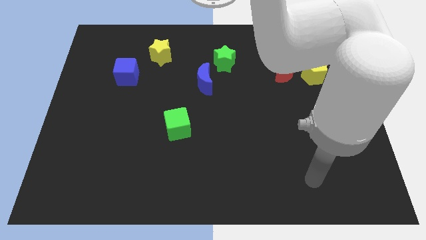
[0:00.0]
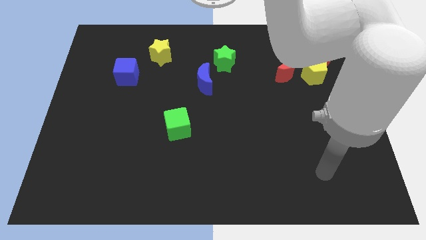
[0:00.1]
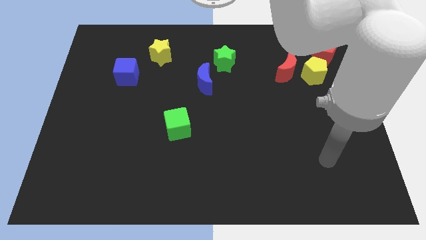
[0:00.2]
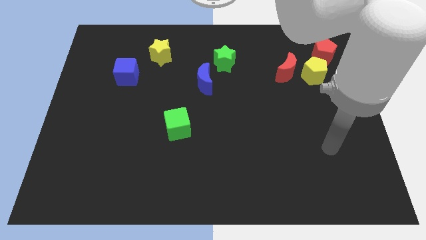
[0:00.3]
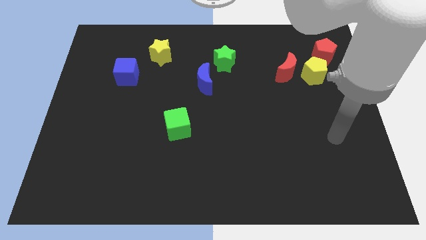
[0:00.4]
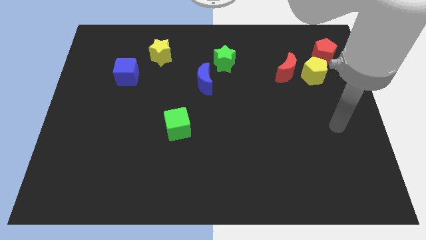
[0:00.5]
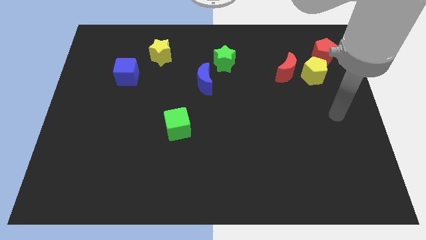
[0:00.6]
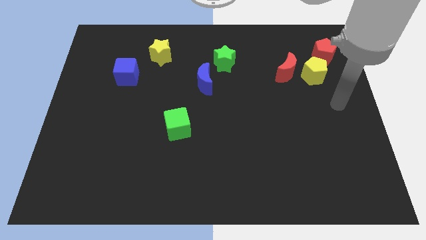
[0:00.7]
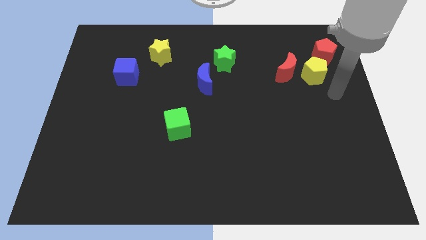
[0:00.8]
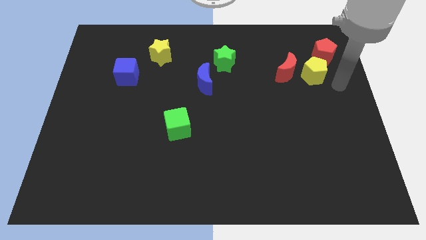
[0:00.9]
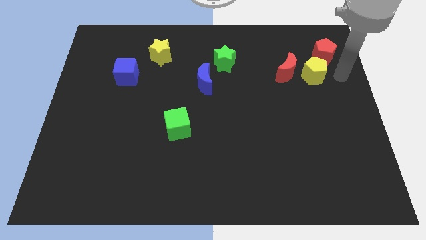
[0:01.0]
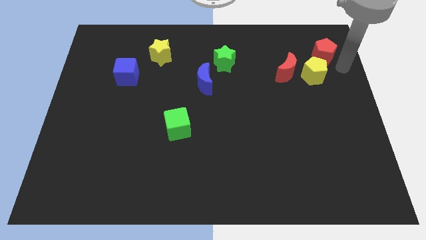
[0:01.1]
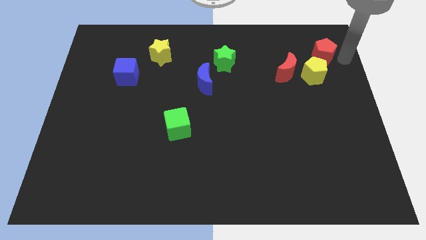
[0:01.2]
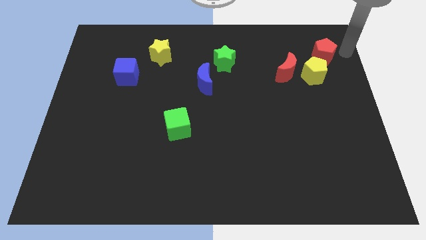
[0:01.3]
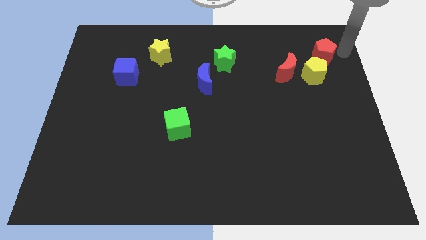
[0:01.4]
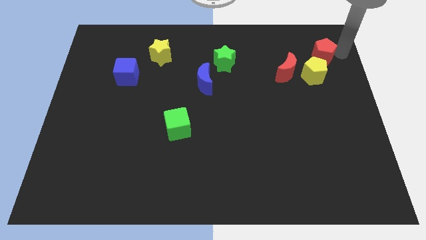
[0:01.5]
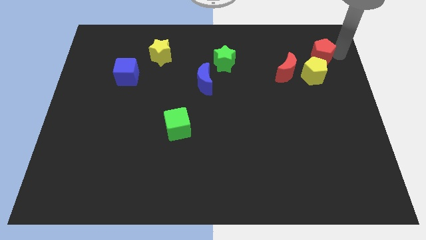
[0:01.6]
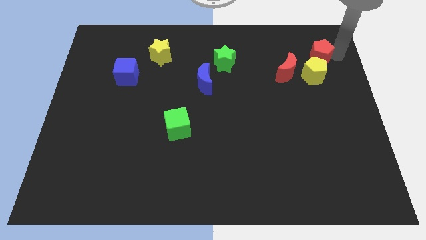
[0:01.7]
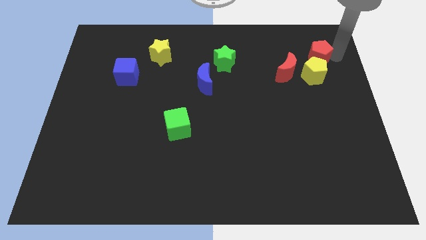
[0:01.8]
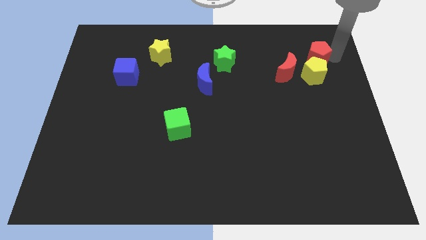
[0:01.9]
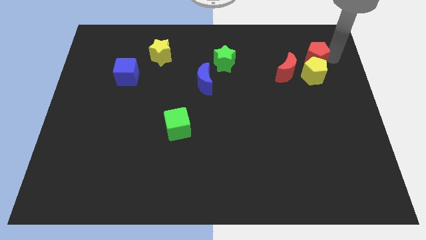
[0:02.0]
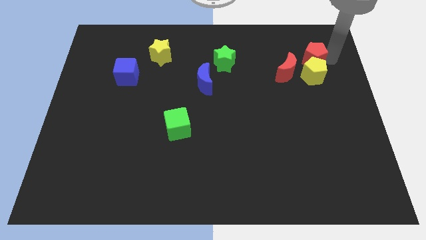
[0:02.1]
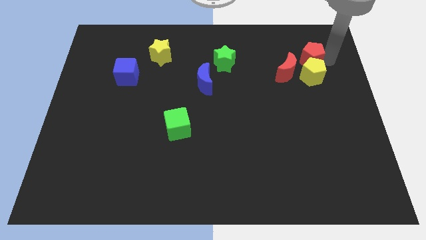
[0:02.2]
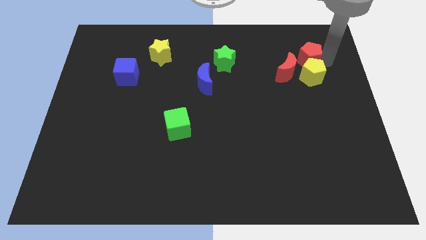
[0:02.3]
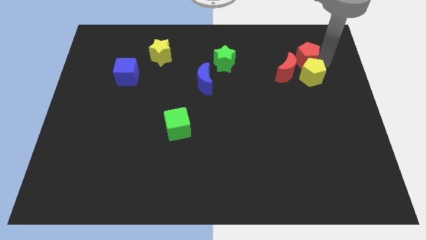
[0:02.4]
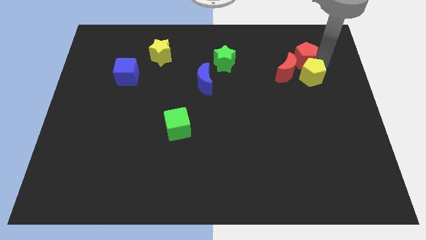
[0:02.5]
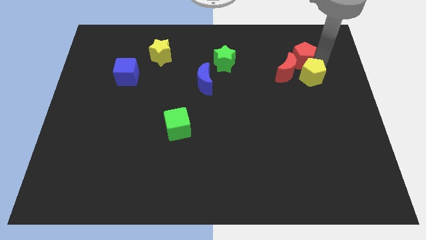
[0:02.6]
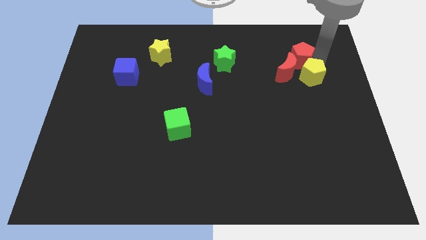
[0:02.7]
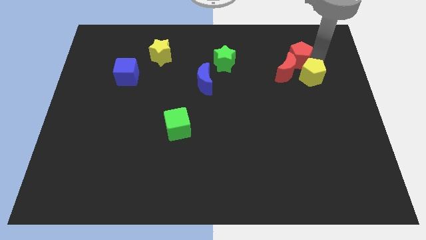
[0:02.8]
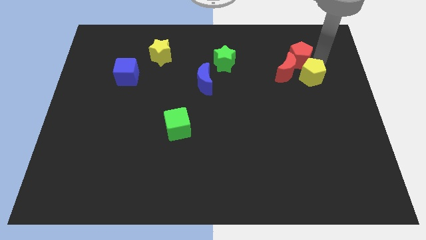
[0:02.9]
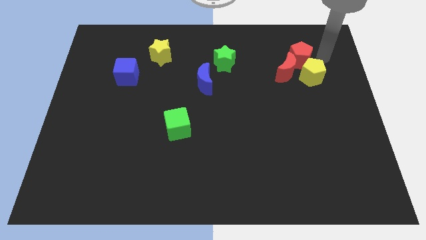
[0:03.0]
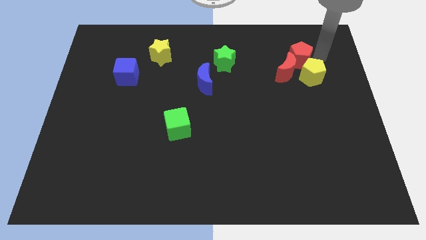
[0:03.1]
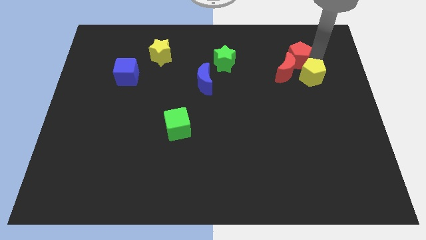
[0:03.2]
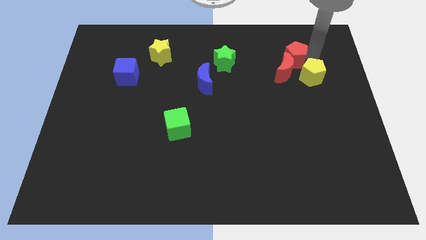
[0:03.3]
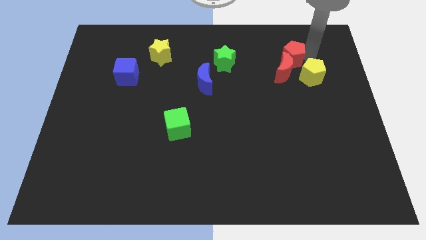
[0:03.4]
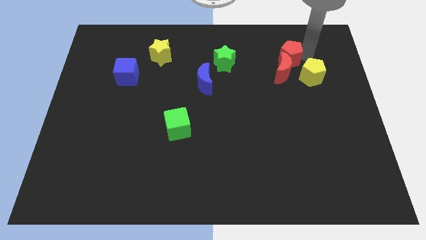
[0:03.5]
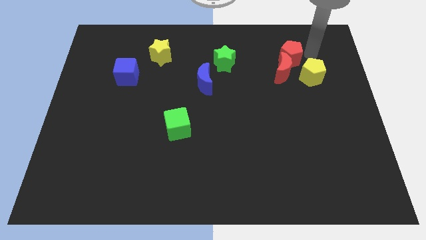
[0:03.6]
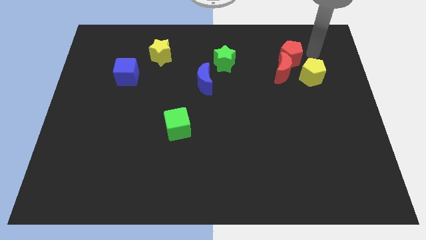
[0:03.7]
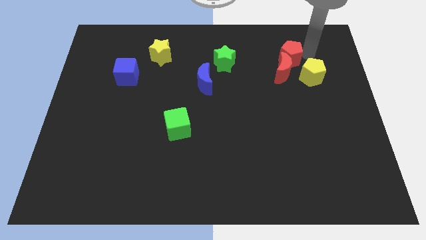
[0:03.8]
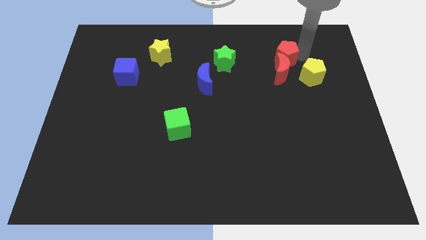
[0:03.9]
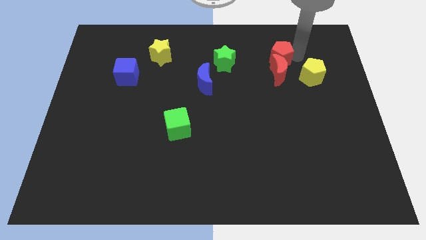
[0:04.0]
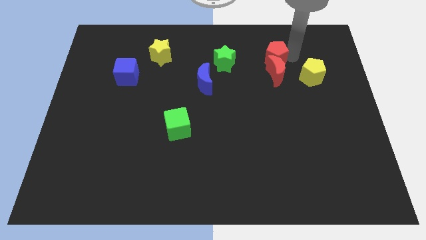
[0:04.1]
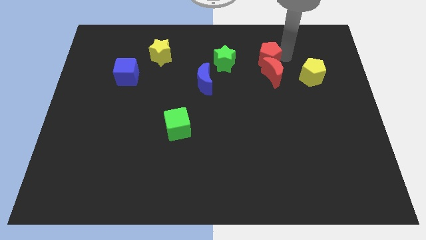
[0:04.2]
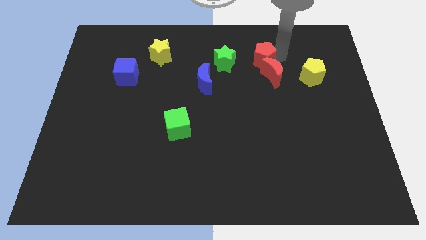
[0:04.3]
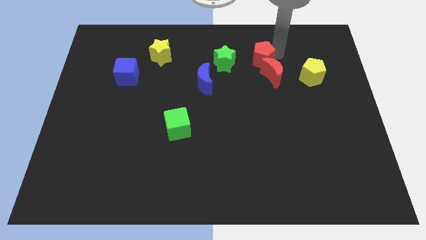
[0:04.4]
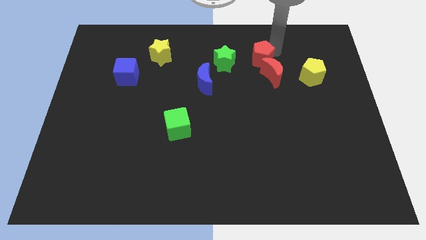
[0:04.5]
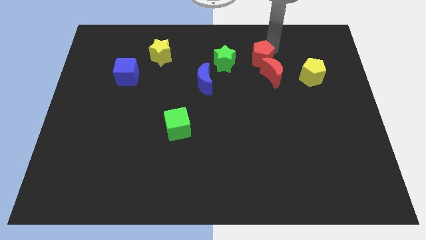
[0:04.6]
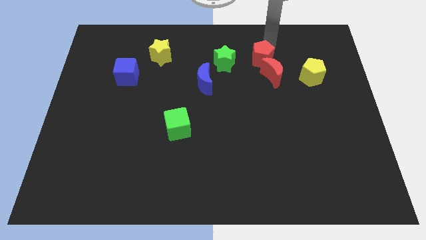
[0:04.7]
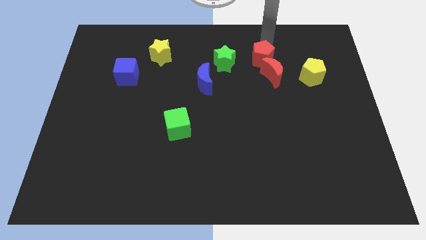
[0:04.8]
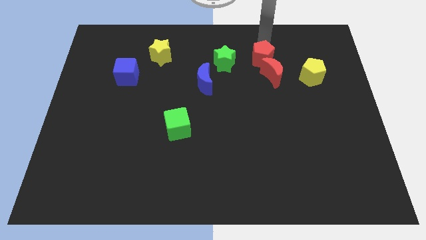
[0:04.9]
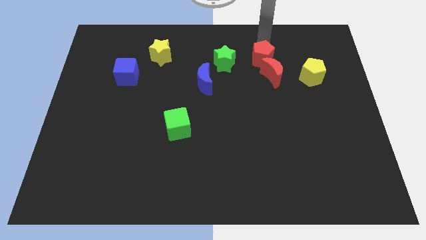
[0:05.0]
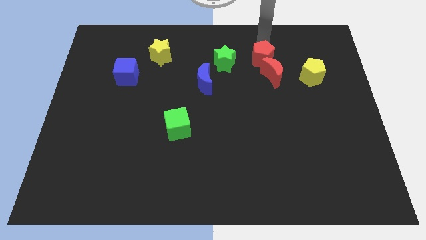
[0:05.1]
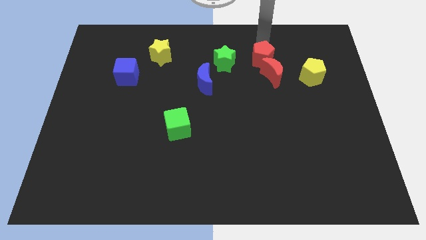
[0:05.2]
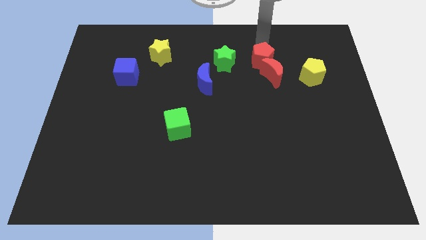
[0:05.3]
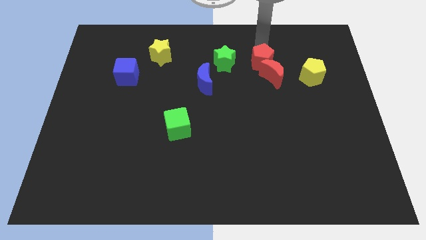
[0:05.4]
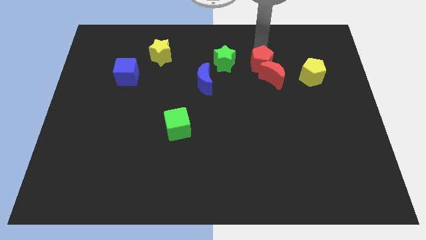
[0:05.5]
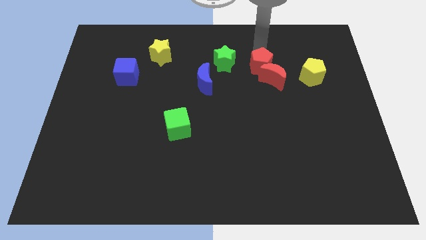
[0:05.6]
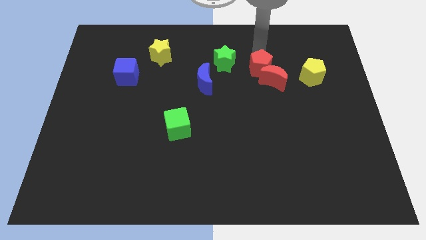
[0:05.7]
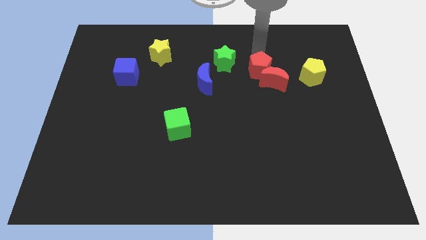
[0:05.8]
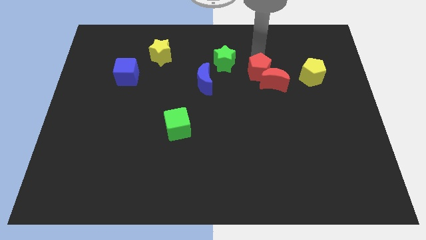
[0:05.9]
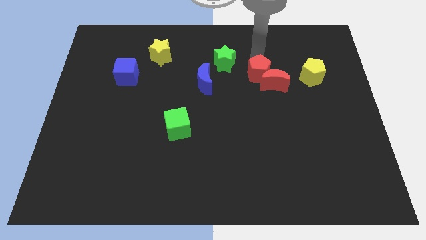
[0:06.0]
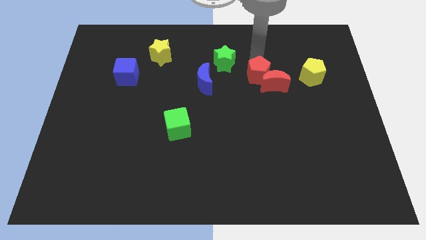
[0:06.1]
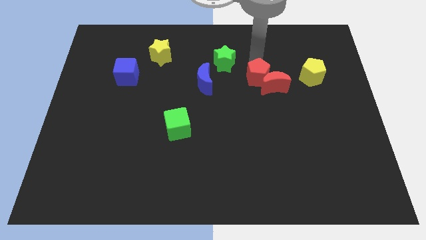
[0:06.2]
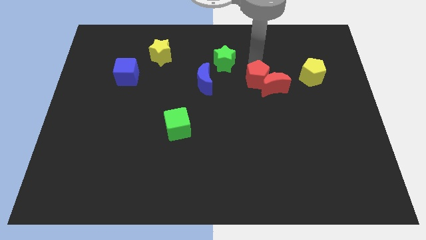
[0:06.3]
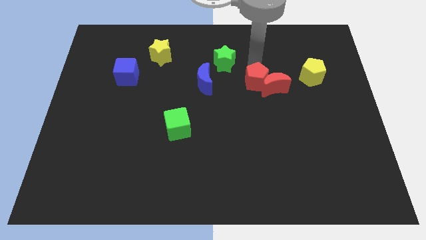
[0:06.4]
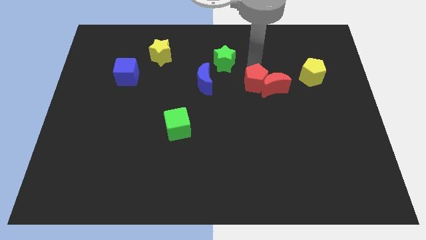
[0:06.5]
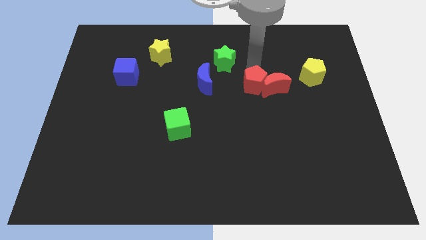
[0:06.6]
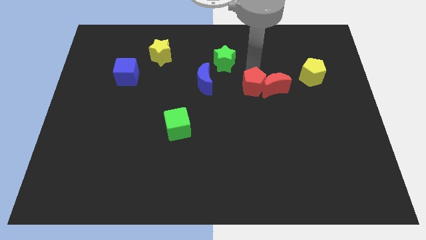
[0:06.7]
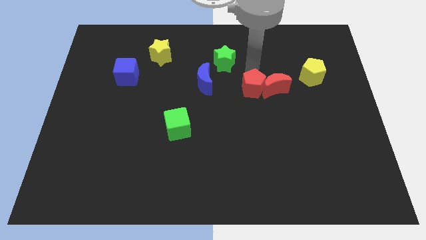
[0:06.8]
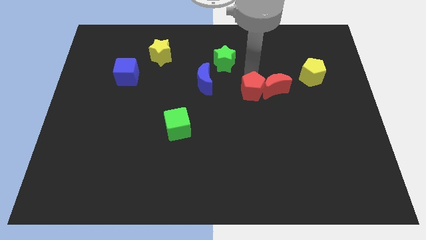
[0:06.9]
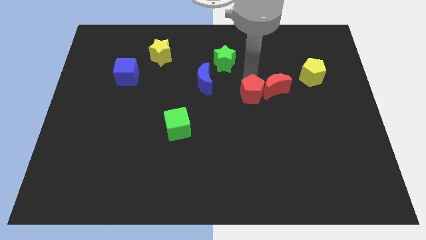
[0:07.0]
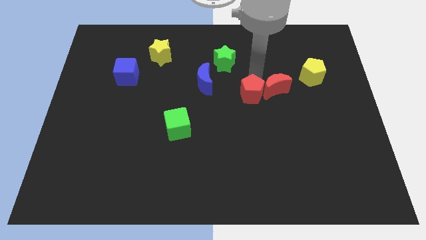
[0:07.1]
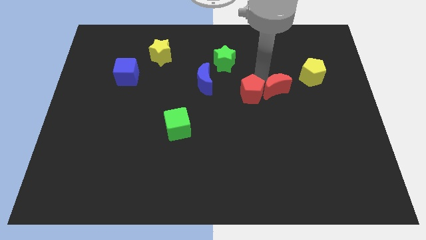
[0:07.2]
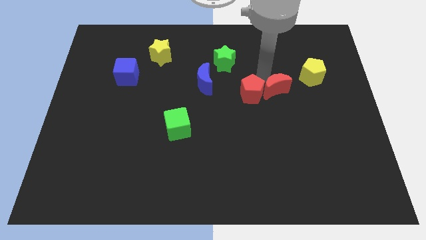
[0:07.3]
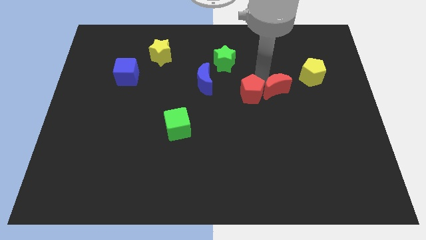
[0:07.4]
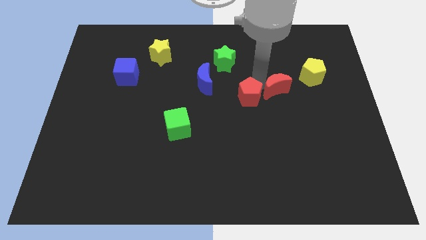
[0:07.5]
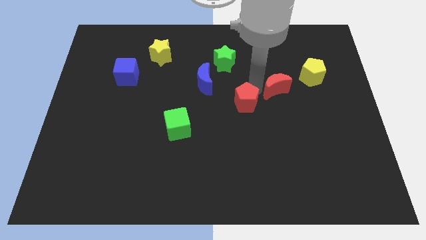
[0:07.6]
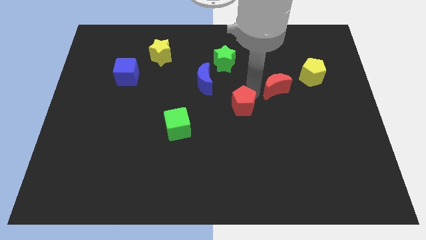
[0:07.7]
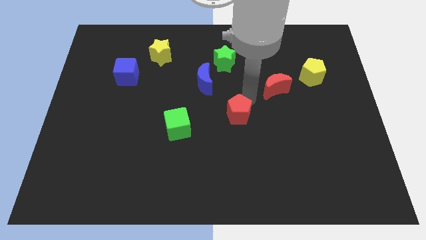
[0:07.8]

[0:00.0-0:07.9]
move the red pentagon to the right of the green cube
